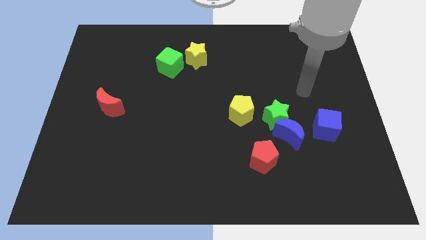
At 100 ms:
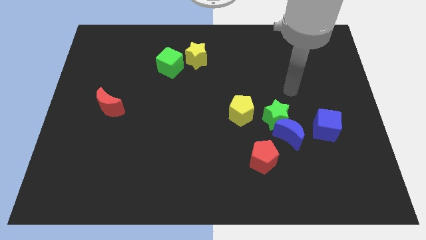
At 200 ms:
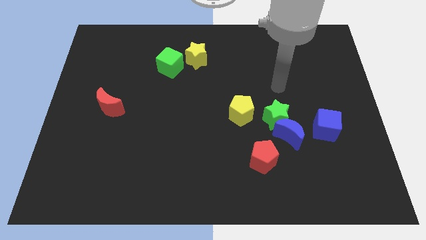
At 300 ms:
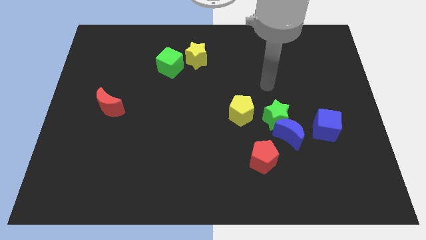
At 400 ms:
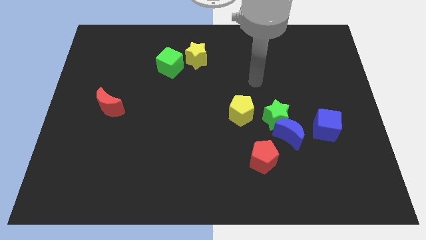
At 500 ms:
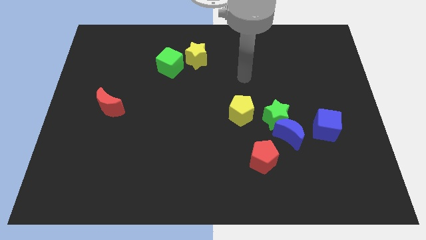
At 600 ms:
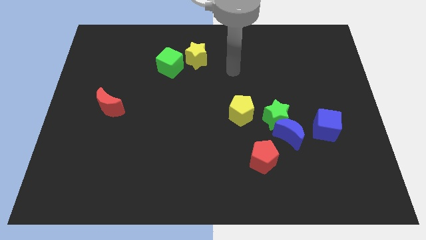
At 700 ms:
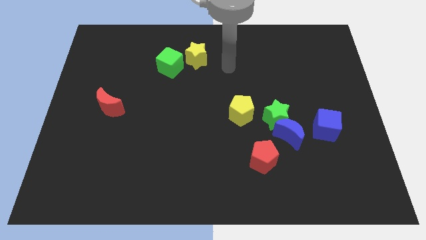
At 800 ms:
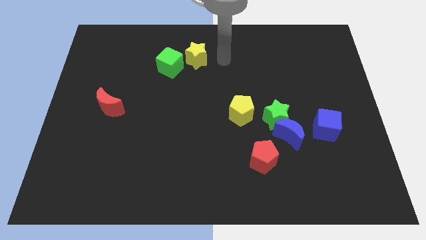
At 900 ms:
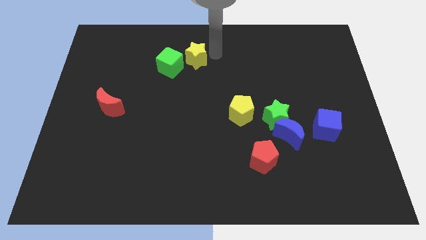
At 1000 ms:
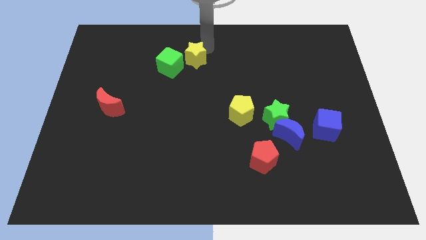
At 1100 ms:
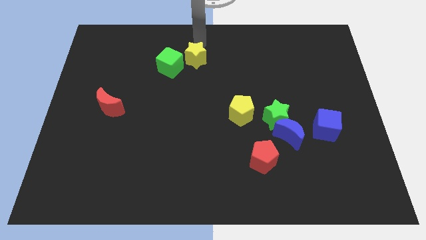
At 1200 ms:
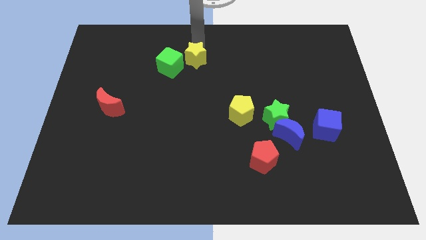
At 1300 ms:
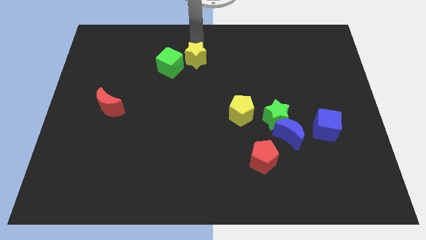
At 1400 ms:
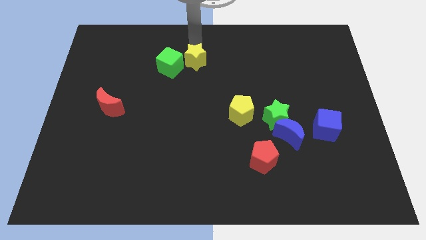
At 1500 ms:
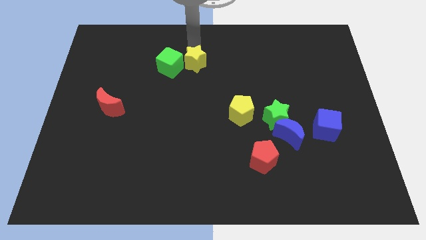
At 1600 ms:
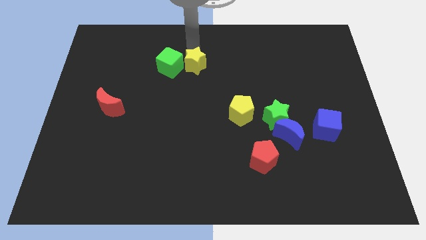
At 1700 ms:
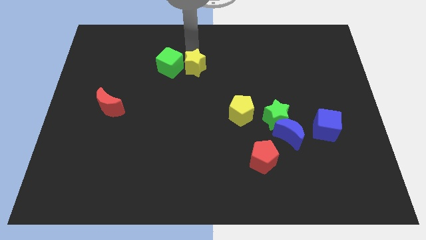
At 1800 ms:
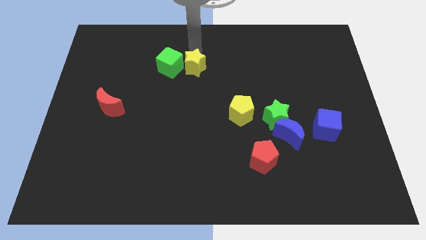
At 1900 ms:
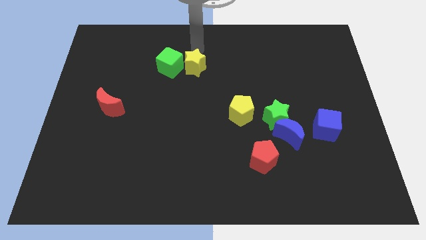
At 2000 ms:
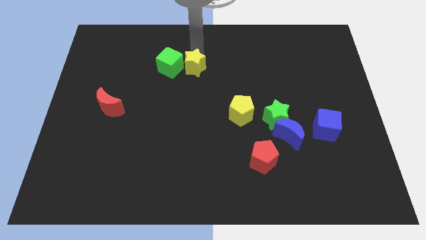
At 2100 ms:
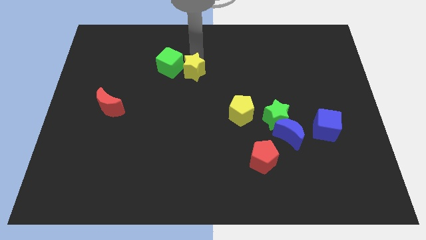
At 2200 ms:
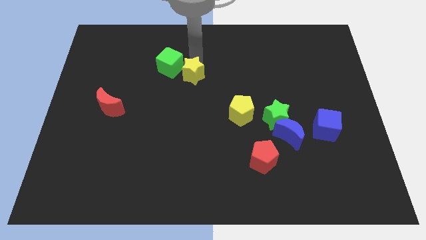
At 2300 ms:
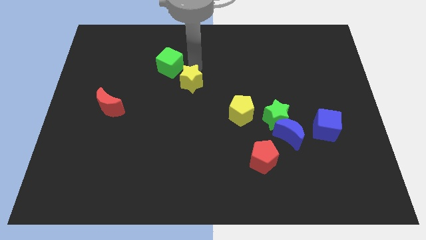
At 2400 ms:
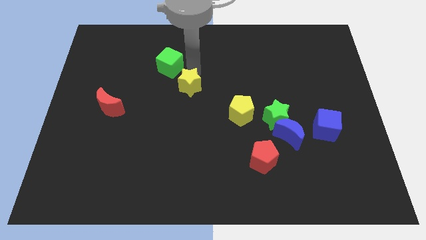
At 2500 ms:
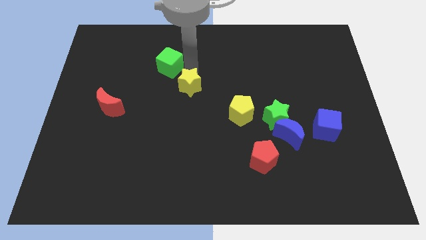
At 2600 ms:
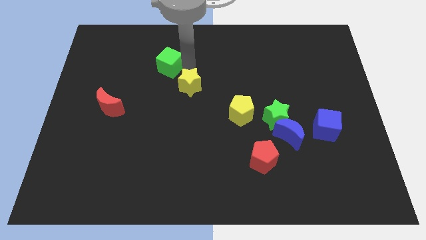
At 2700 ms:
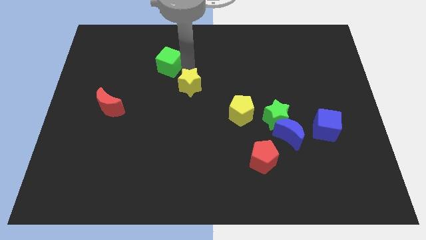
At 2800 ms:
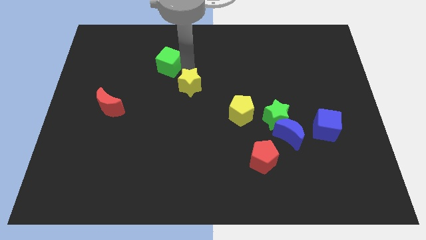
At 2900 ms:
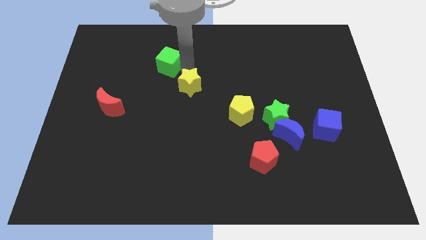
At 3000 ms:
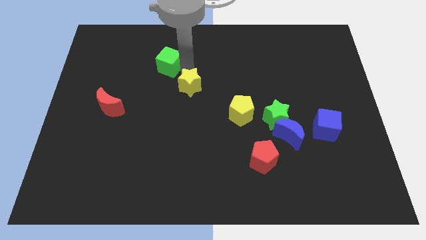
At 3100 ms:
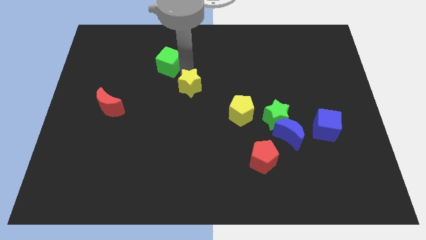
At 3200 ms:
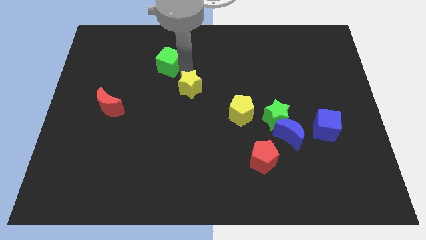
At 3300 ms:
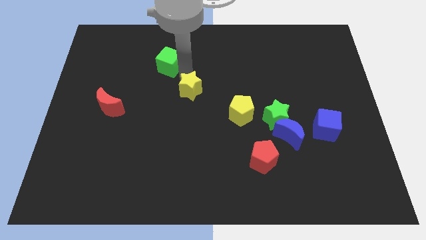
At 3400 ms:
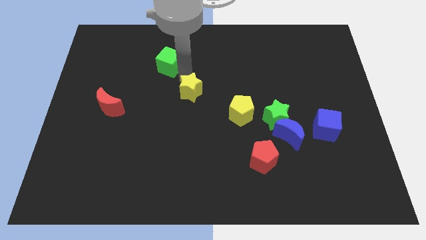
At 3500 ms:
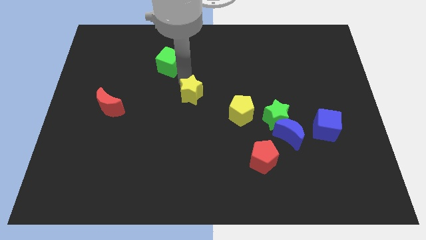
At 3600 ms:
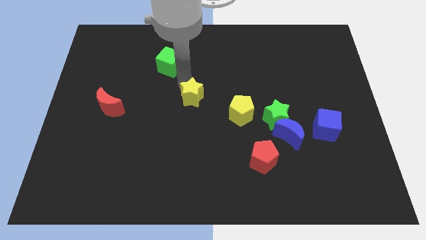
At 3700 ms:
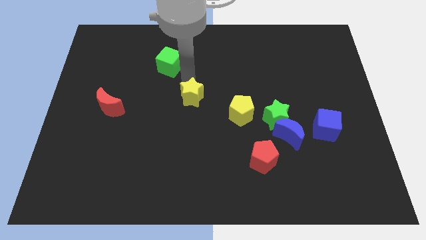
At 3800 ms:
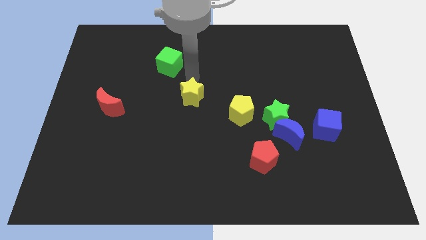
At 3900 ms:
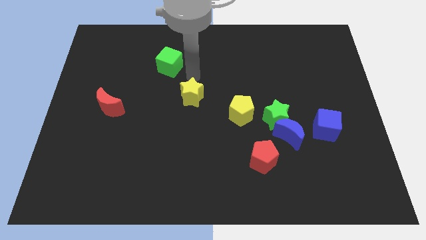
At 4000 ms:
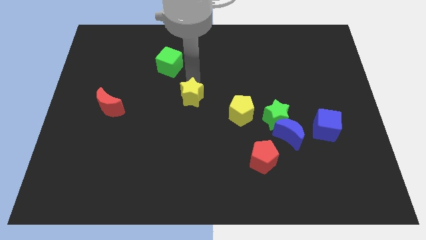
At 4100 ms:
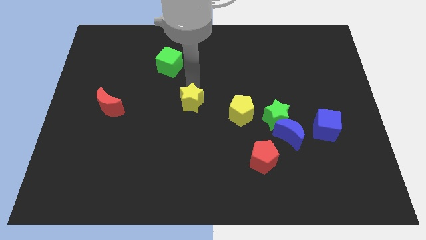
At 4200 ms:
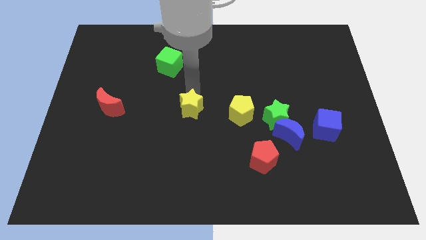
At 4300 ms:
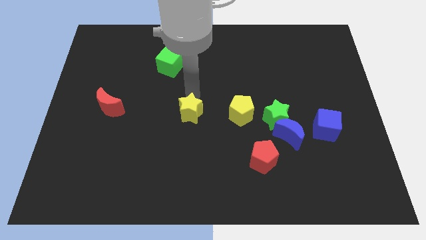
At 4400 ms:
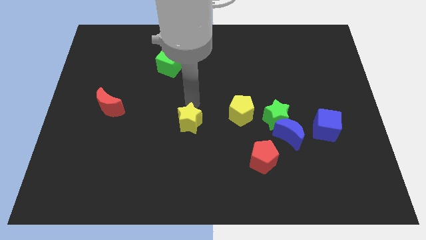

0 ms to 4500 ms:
slide the yellow star down

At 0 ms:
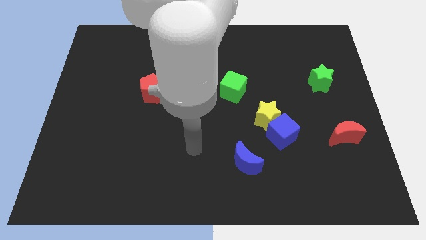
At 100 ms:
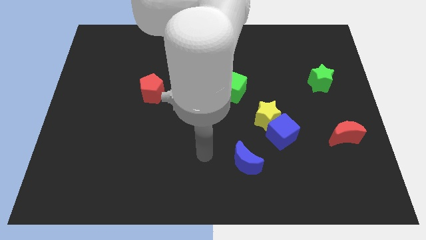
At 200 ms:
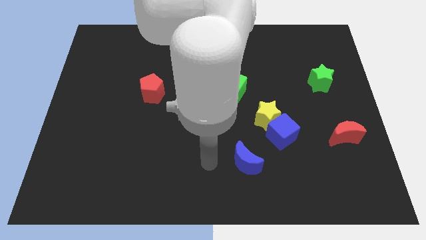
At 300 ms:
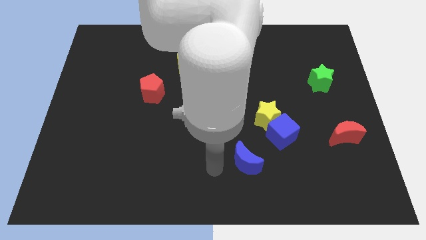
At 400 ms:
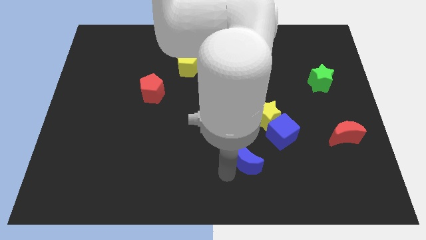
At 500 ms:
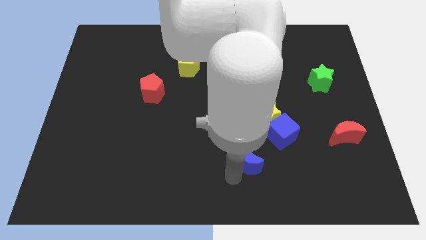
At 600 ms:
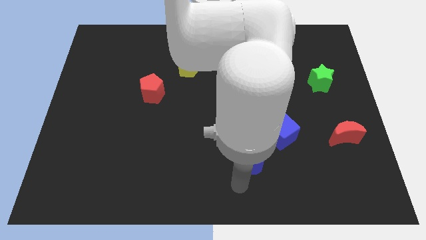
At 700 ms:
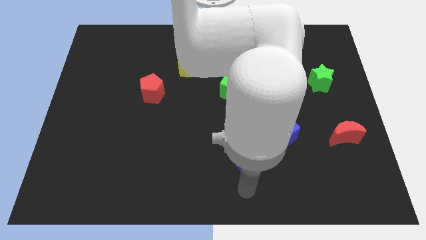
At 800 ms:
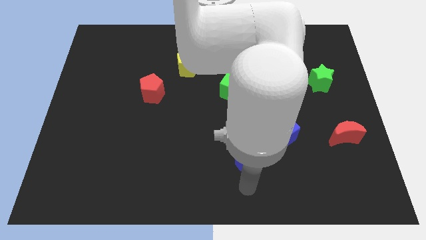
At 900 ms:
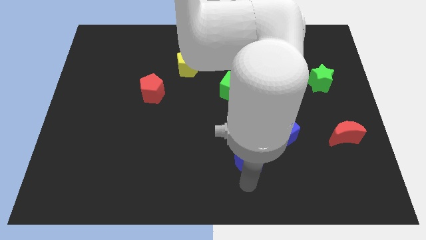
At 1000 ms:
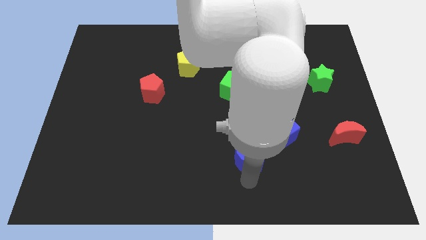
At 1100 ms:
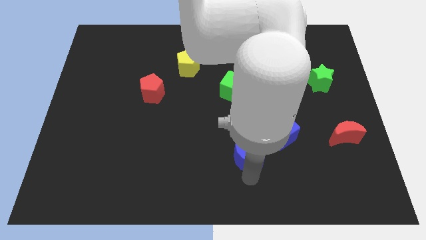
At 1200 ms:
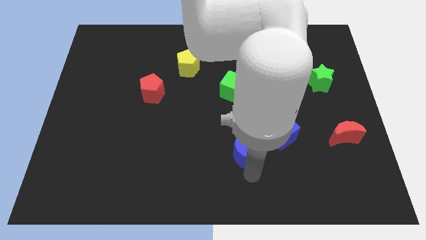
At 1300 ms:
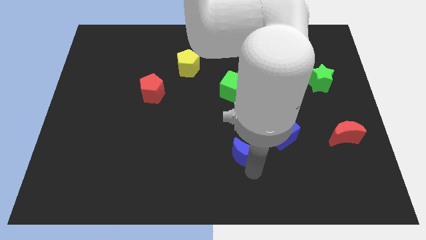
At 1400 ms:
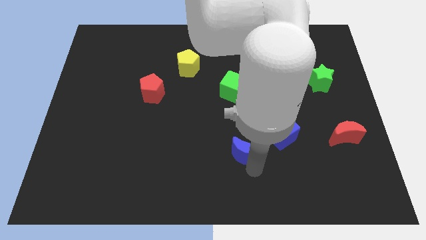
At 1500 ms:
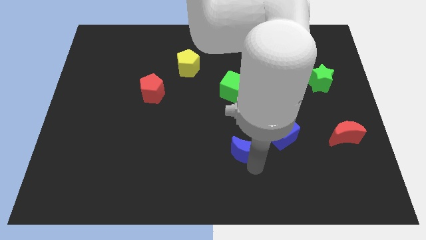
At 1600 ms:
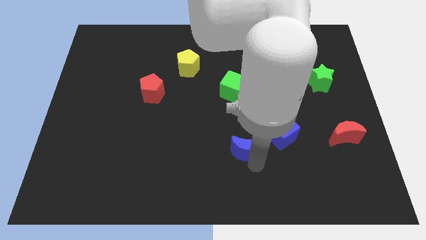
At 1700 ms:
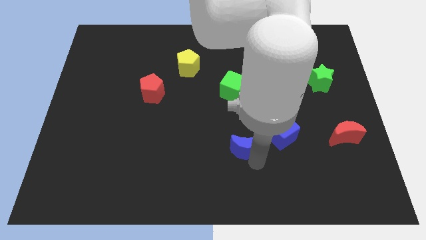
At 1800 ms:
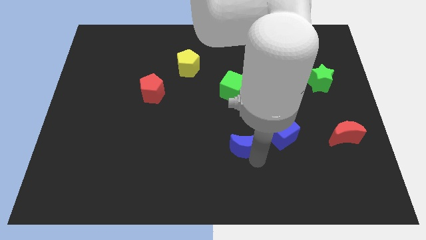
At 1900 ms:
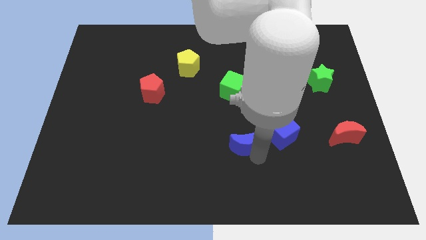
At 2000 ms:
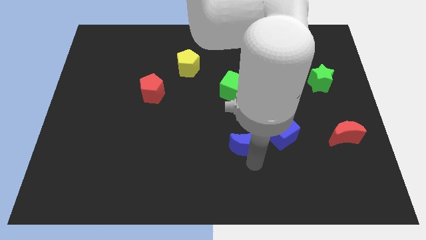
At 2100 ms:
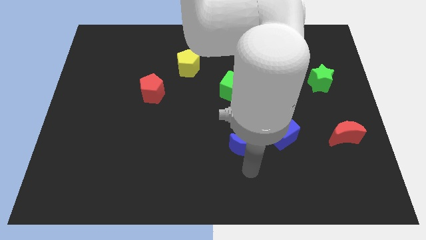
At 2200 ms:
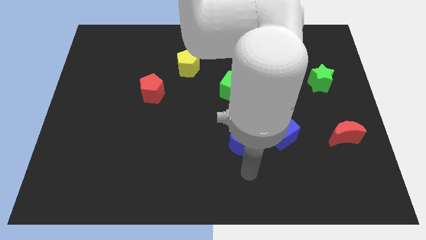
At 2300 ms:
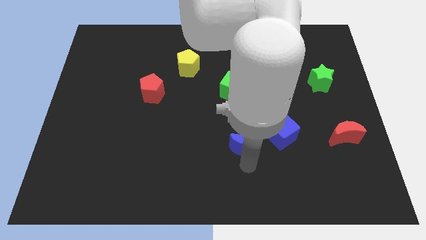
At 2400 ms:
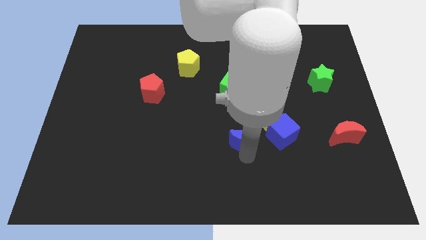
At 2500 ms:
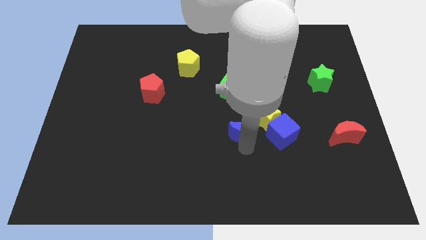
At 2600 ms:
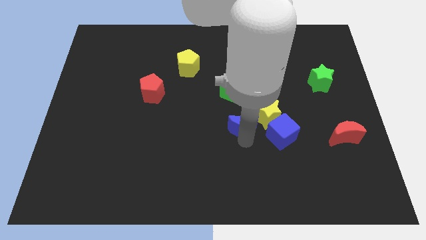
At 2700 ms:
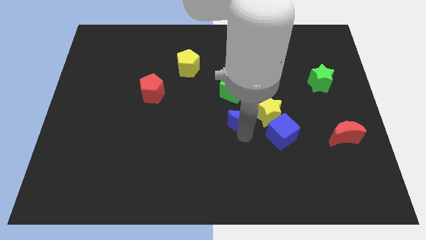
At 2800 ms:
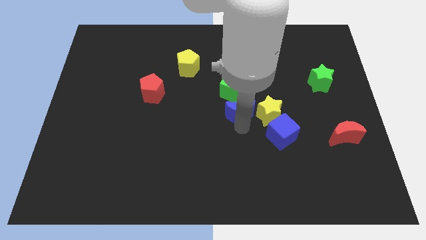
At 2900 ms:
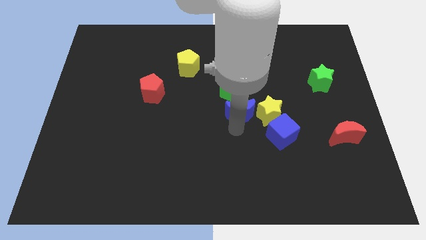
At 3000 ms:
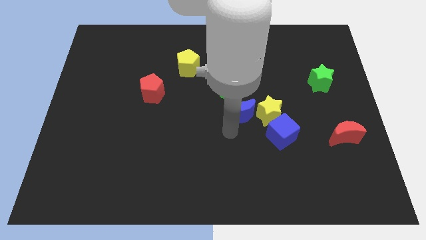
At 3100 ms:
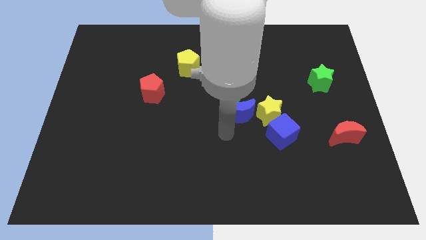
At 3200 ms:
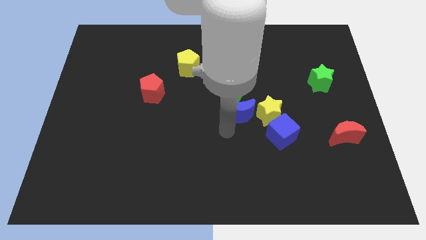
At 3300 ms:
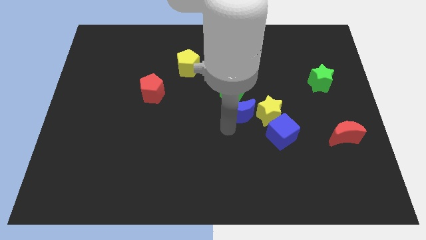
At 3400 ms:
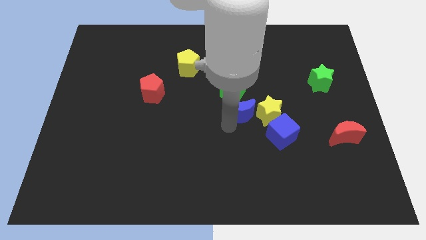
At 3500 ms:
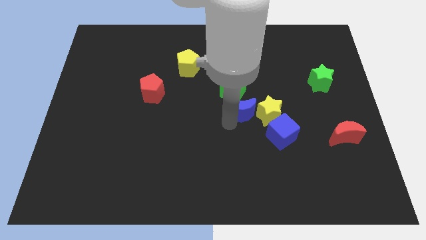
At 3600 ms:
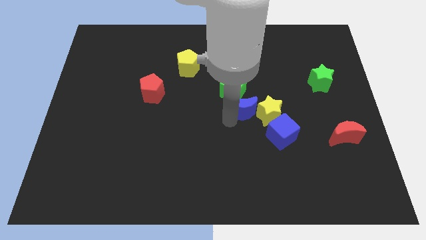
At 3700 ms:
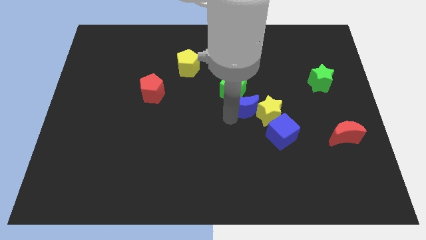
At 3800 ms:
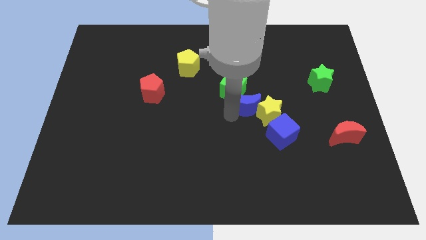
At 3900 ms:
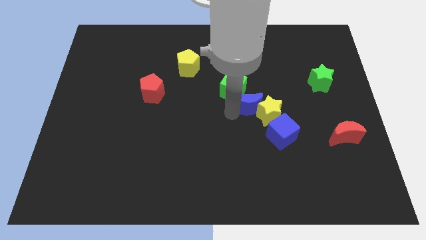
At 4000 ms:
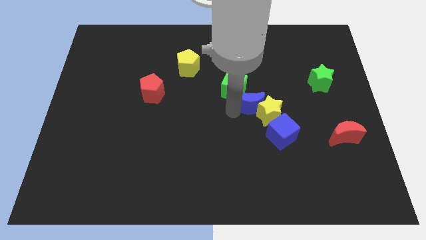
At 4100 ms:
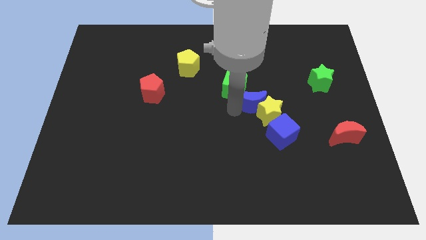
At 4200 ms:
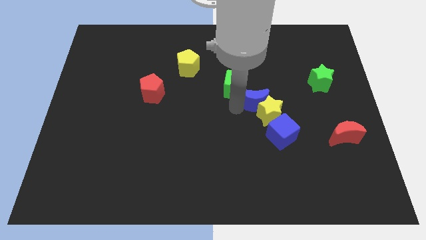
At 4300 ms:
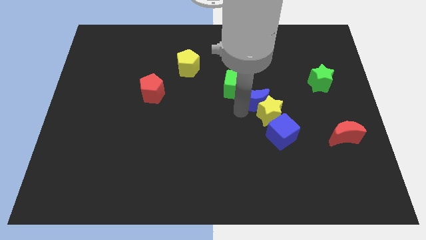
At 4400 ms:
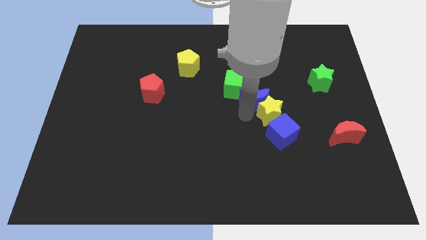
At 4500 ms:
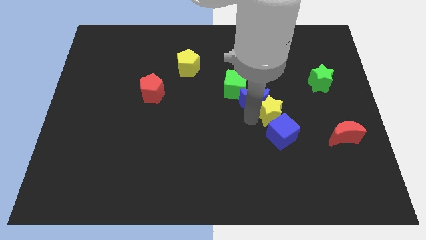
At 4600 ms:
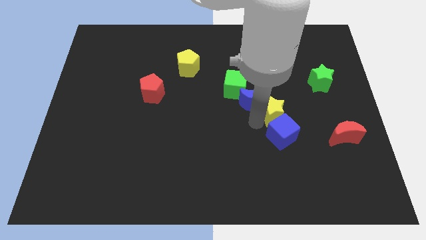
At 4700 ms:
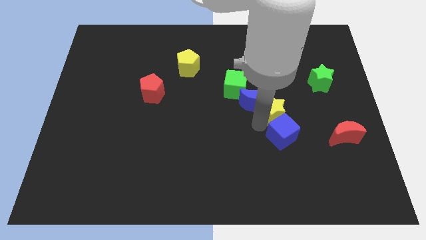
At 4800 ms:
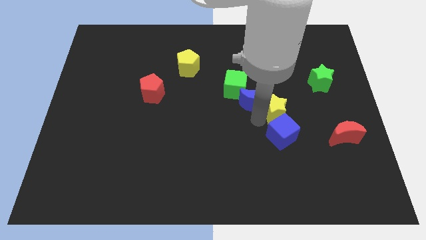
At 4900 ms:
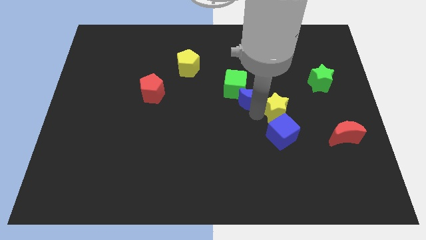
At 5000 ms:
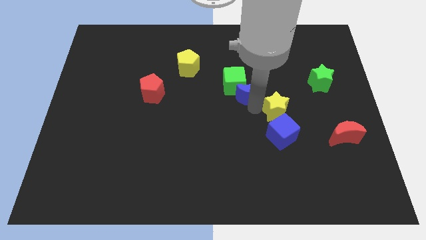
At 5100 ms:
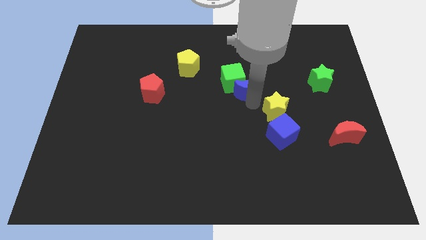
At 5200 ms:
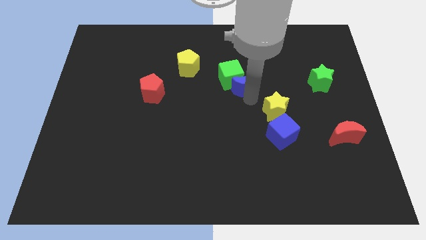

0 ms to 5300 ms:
push the blue moon upwards
